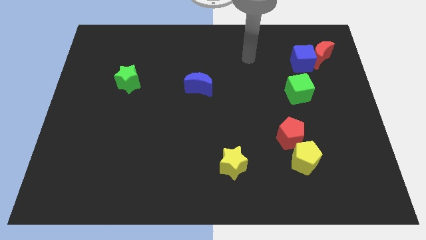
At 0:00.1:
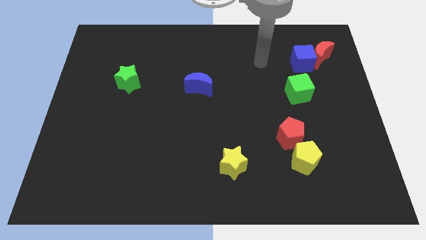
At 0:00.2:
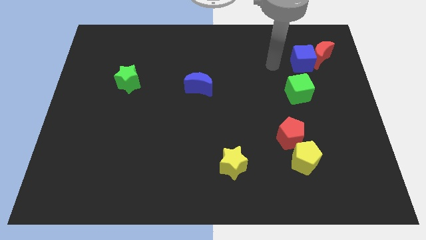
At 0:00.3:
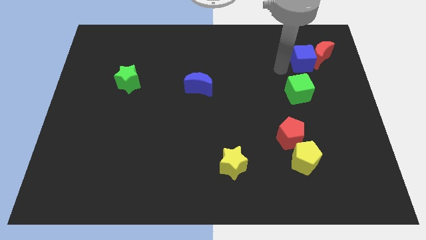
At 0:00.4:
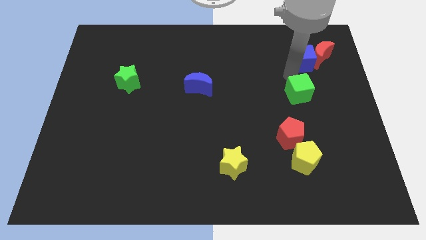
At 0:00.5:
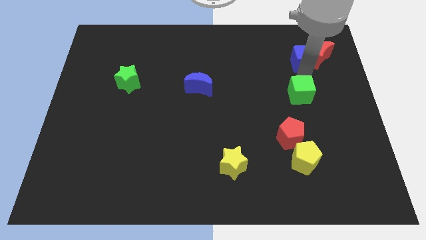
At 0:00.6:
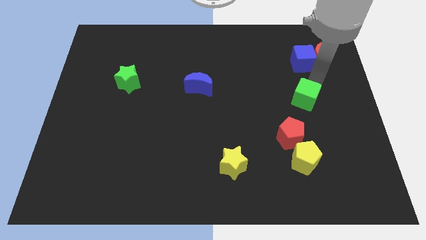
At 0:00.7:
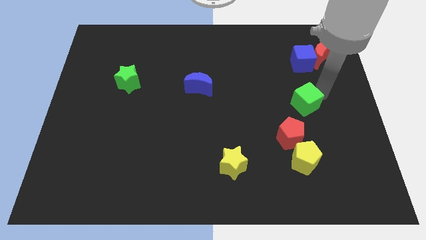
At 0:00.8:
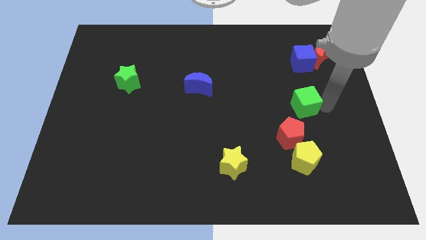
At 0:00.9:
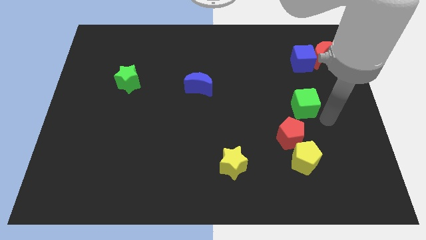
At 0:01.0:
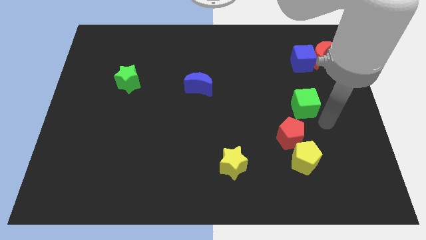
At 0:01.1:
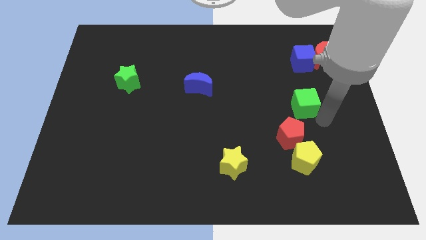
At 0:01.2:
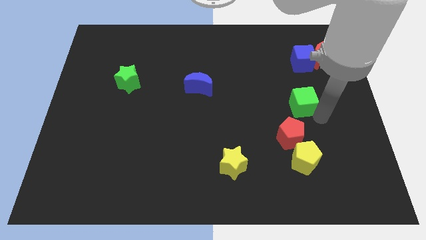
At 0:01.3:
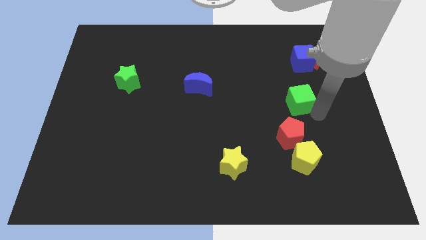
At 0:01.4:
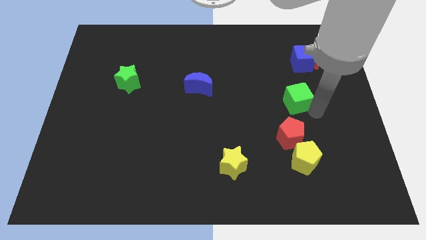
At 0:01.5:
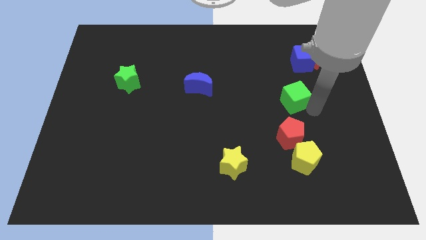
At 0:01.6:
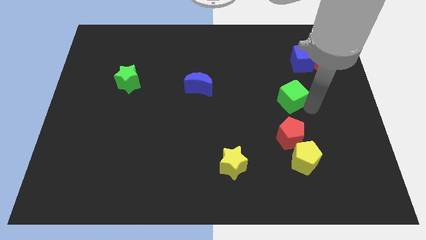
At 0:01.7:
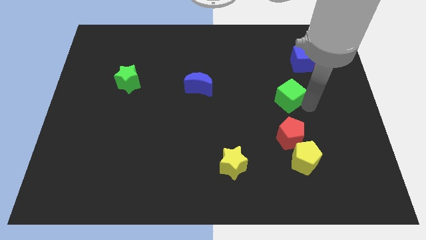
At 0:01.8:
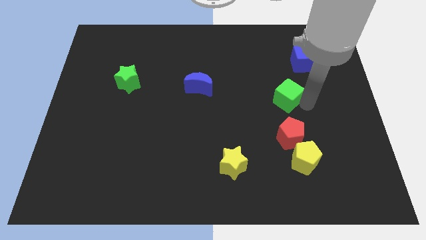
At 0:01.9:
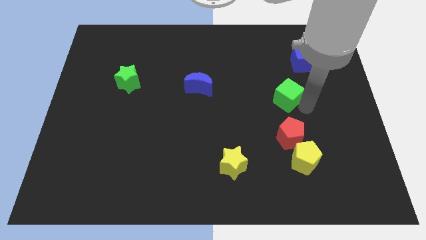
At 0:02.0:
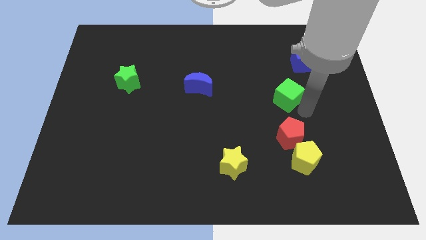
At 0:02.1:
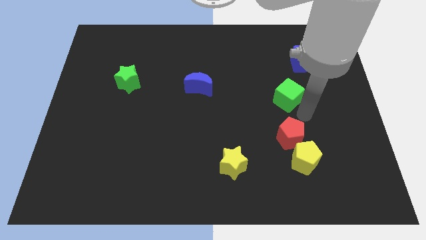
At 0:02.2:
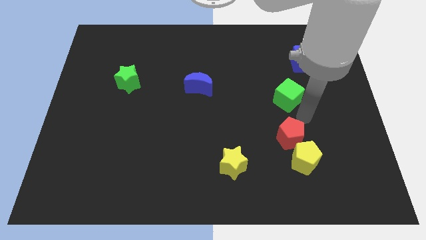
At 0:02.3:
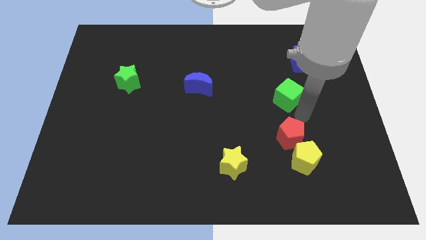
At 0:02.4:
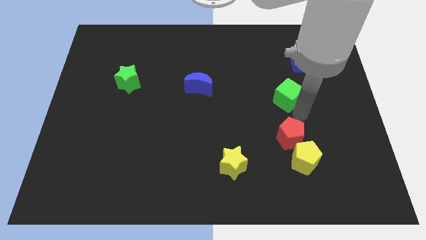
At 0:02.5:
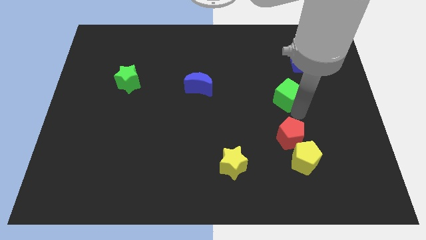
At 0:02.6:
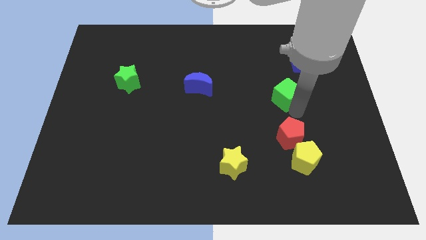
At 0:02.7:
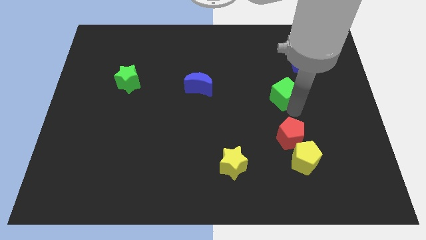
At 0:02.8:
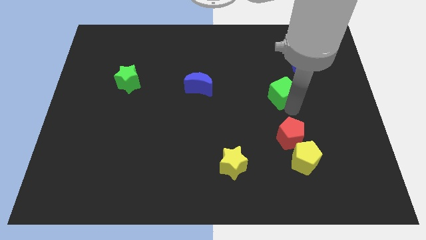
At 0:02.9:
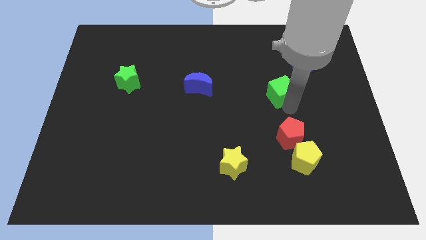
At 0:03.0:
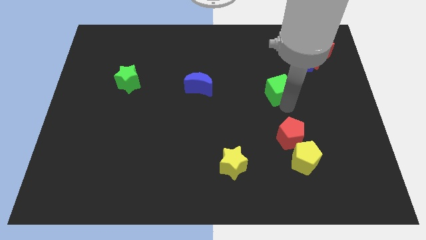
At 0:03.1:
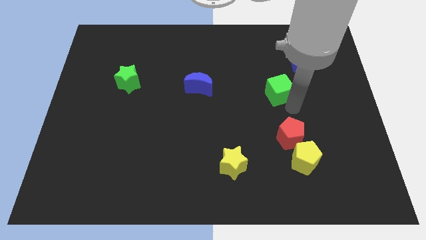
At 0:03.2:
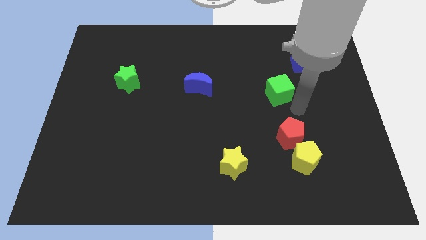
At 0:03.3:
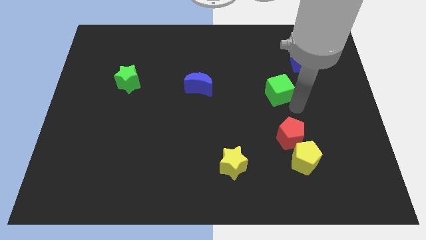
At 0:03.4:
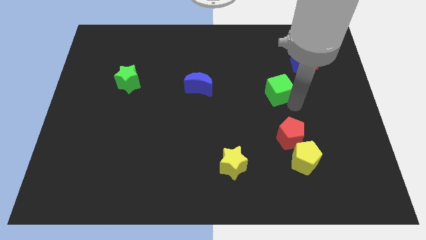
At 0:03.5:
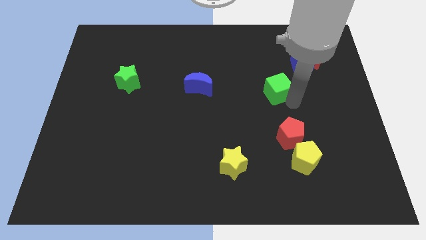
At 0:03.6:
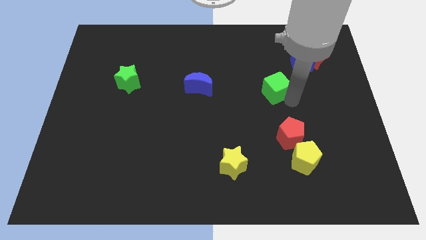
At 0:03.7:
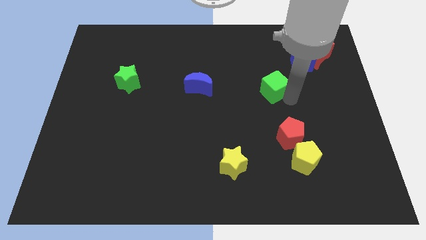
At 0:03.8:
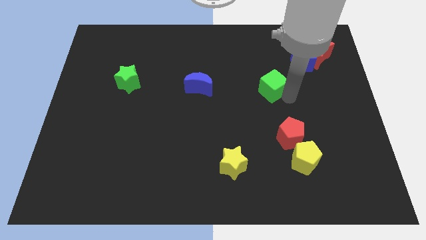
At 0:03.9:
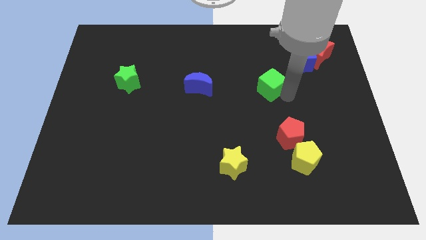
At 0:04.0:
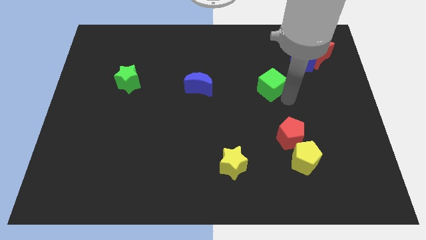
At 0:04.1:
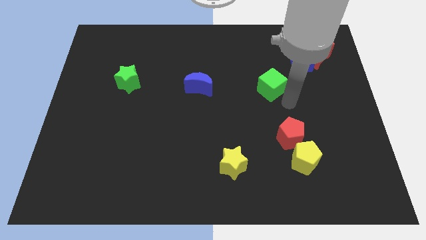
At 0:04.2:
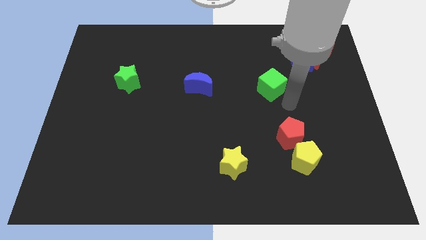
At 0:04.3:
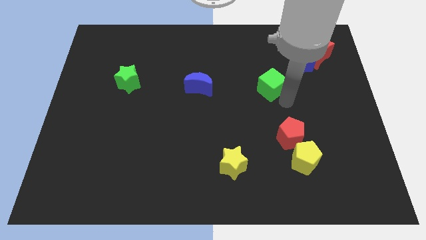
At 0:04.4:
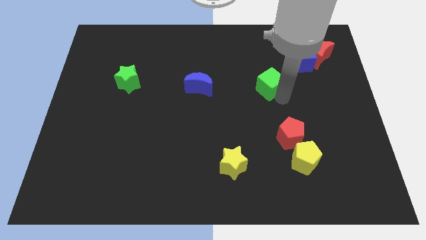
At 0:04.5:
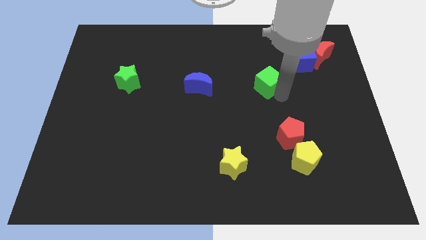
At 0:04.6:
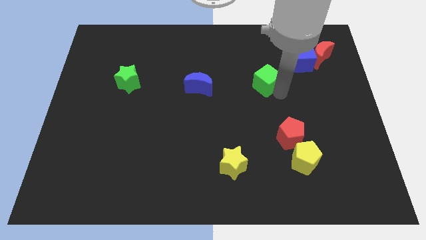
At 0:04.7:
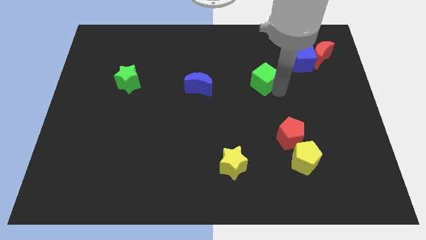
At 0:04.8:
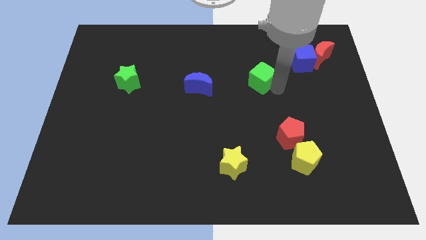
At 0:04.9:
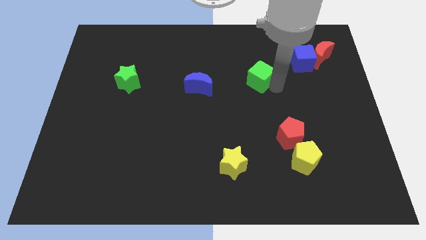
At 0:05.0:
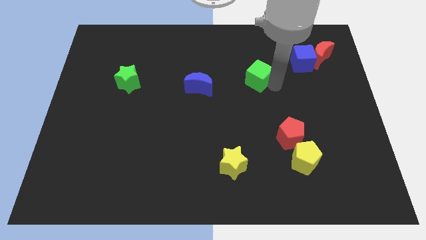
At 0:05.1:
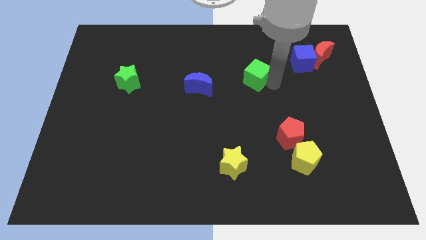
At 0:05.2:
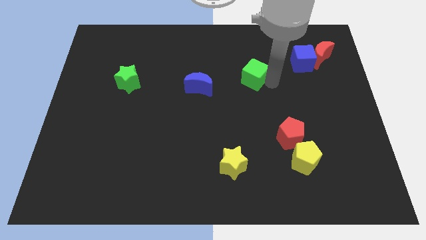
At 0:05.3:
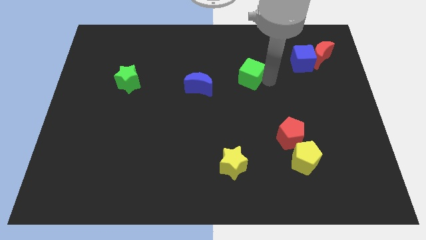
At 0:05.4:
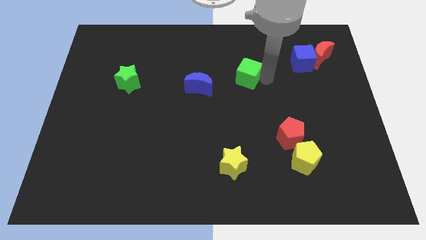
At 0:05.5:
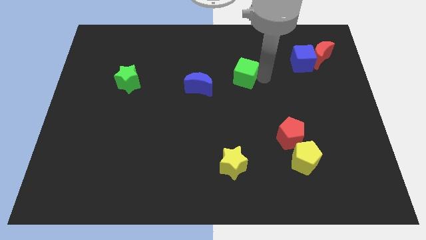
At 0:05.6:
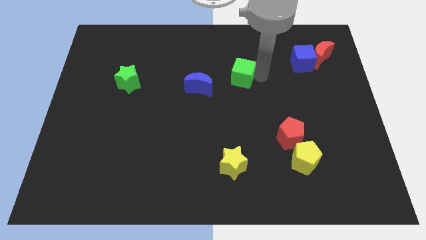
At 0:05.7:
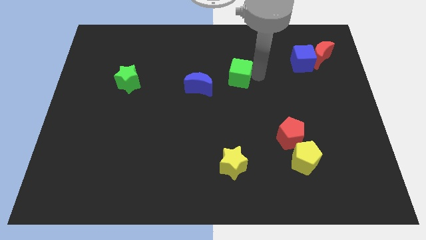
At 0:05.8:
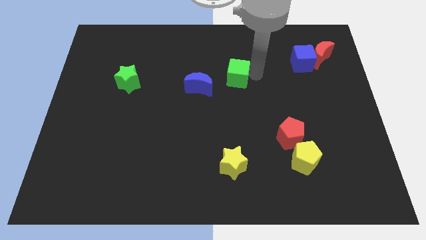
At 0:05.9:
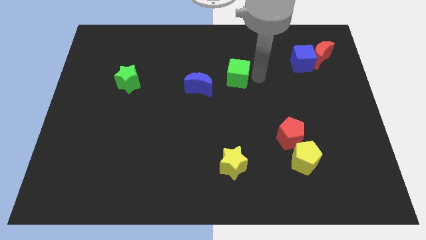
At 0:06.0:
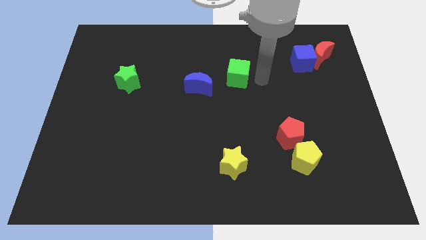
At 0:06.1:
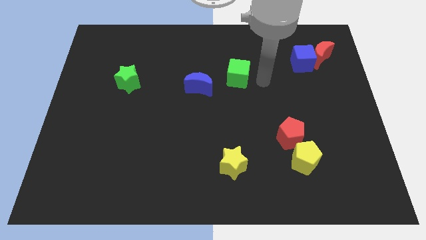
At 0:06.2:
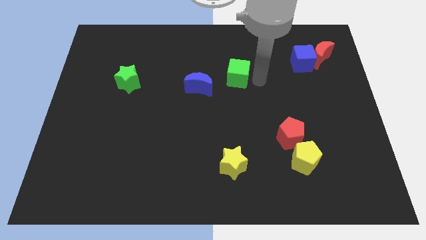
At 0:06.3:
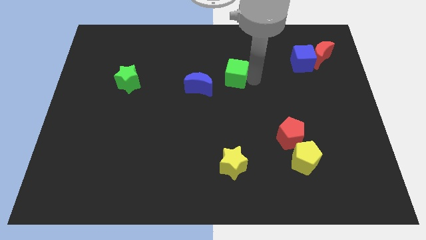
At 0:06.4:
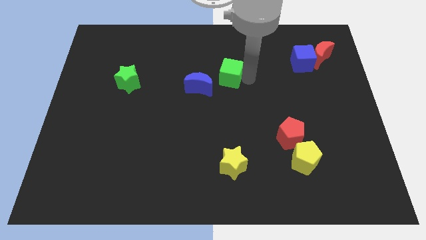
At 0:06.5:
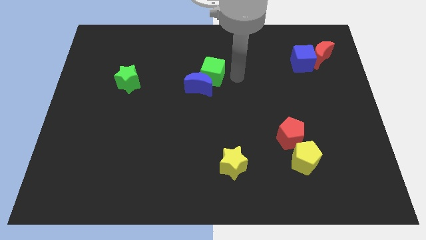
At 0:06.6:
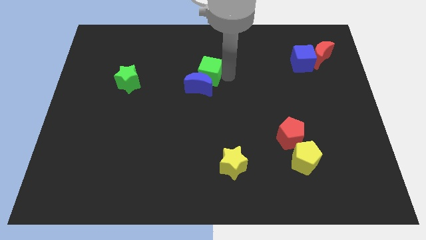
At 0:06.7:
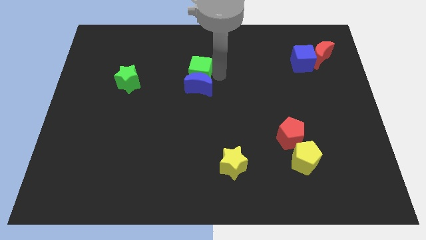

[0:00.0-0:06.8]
move the green cube to the top left side of the blue moon
